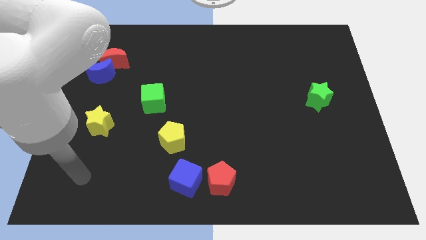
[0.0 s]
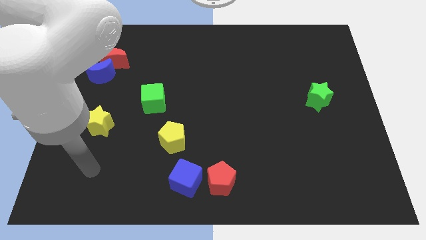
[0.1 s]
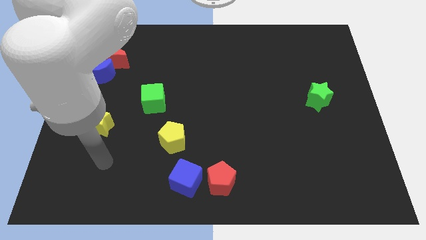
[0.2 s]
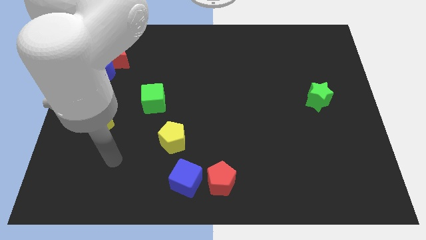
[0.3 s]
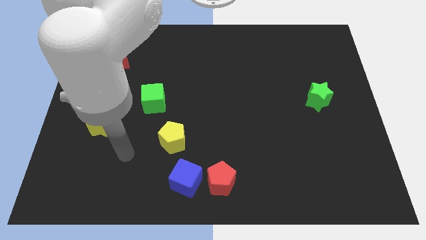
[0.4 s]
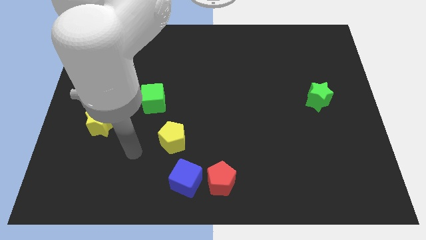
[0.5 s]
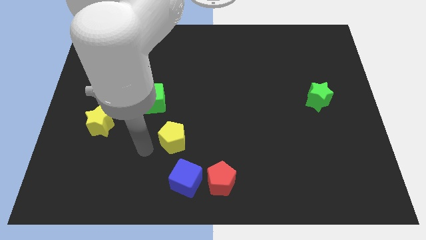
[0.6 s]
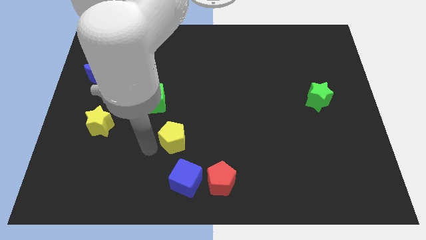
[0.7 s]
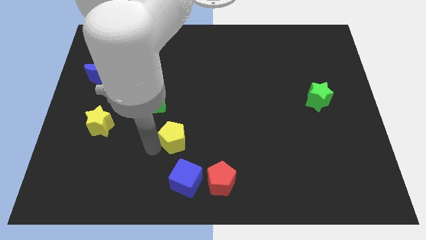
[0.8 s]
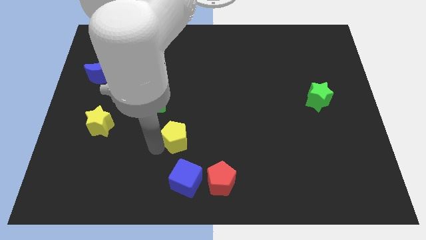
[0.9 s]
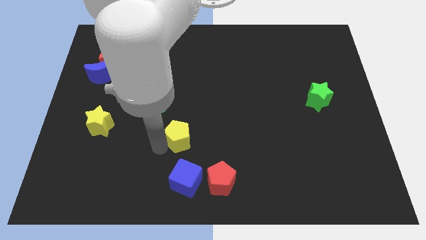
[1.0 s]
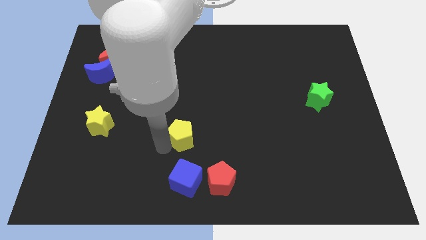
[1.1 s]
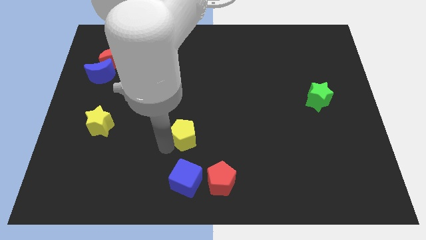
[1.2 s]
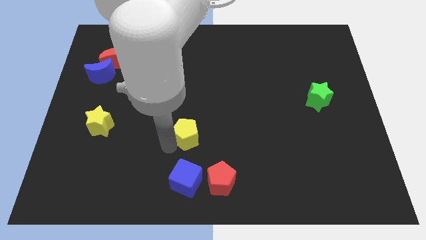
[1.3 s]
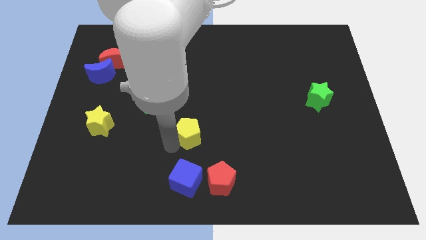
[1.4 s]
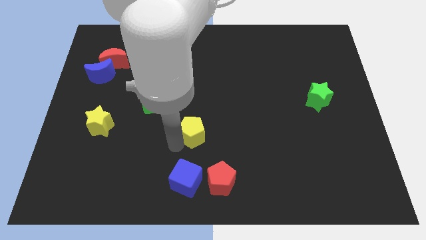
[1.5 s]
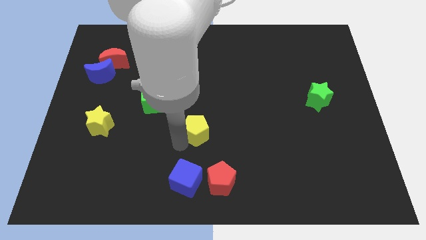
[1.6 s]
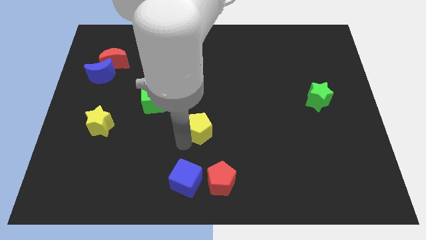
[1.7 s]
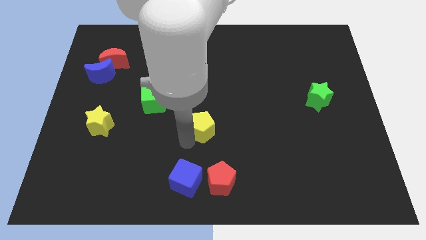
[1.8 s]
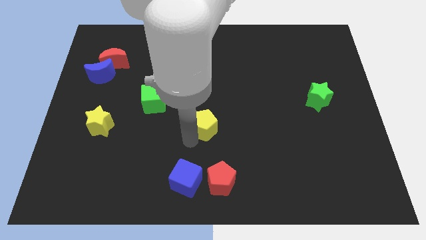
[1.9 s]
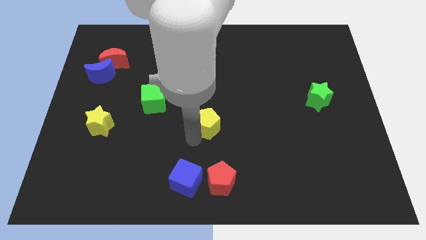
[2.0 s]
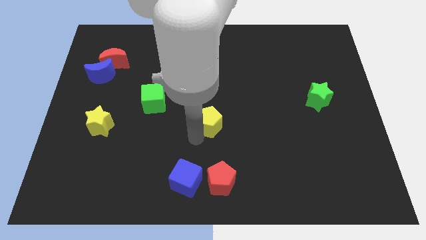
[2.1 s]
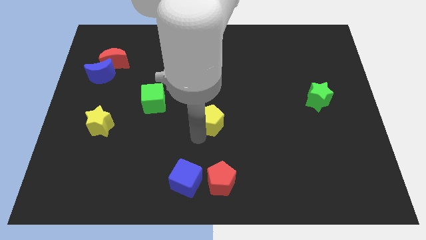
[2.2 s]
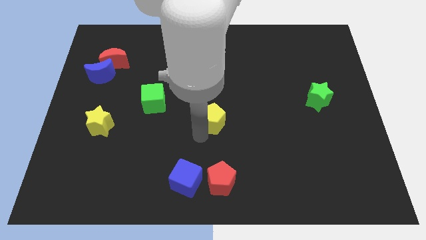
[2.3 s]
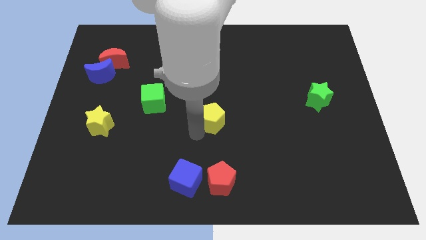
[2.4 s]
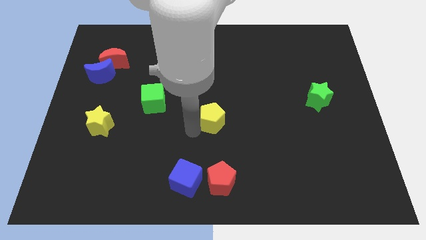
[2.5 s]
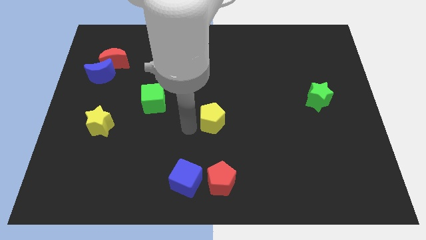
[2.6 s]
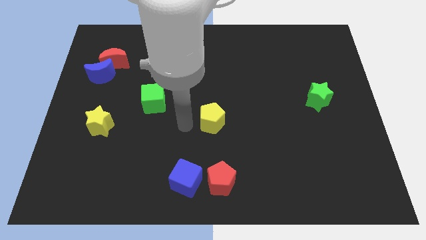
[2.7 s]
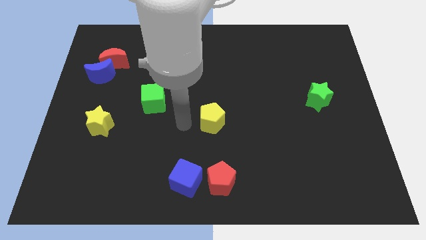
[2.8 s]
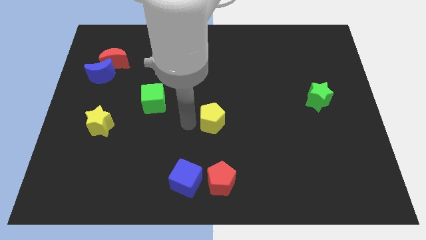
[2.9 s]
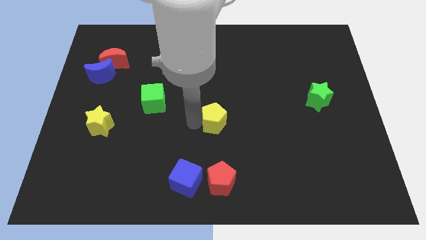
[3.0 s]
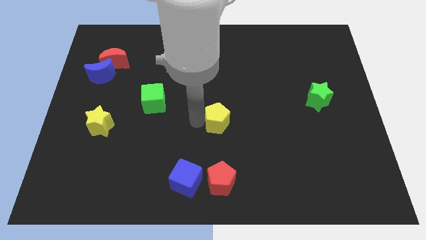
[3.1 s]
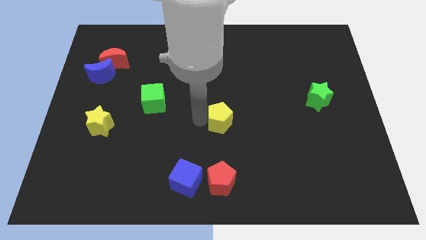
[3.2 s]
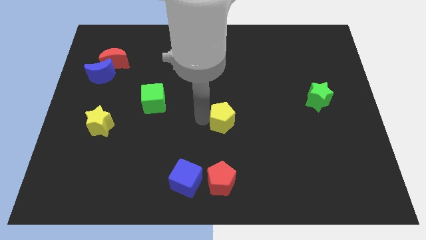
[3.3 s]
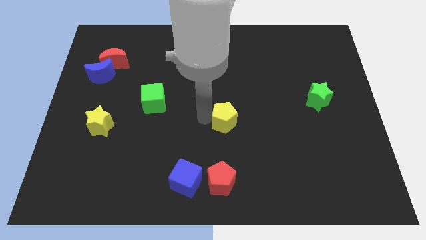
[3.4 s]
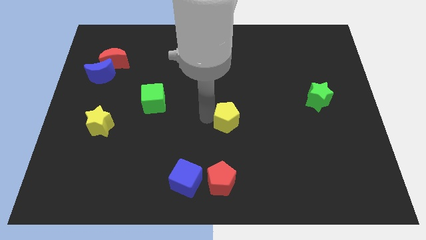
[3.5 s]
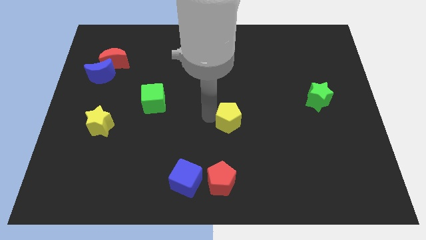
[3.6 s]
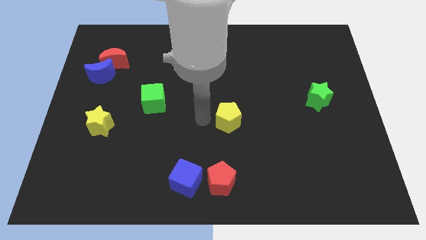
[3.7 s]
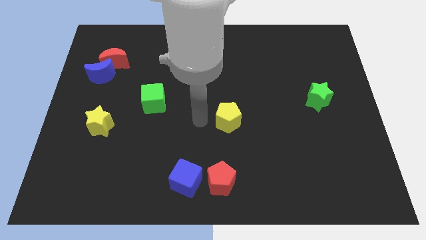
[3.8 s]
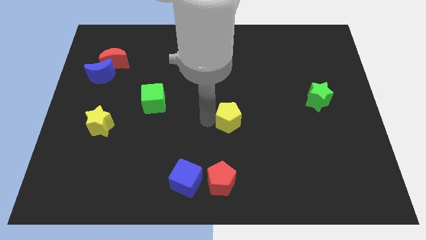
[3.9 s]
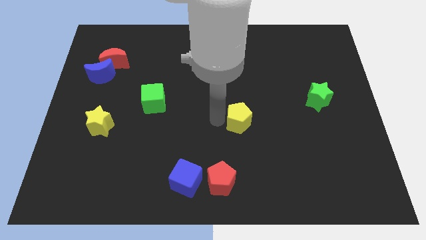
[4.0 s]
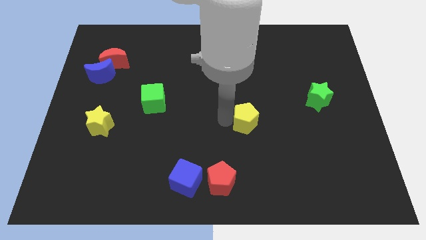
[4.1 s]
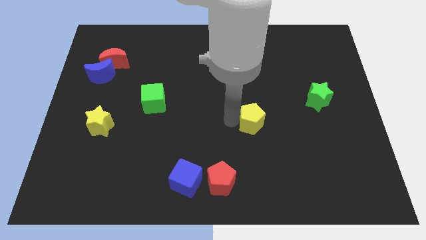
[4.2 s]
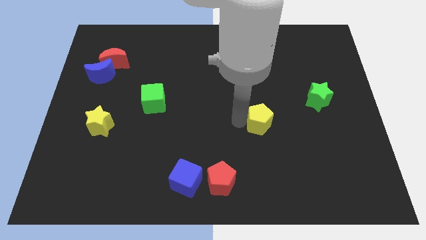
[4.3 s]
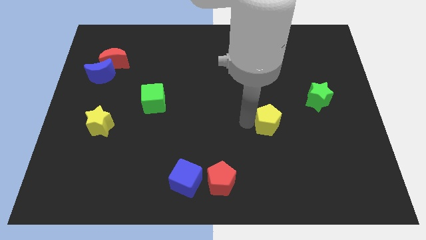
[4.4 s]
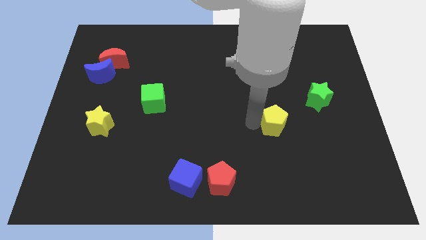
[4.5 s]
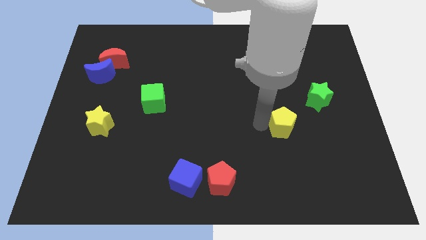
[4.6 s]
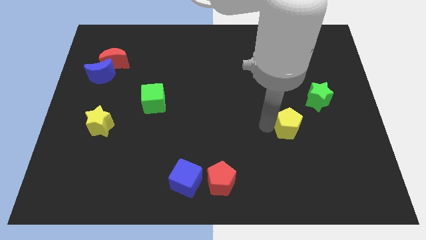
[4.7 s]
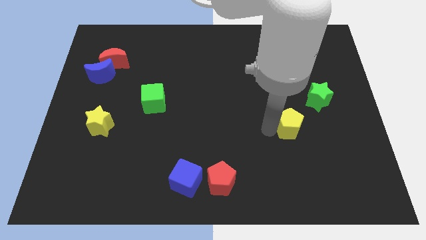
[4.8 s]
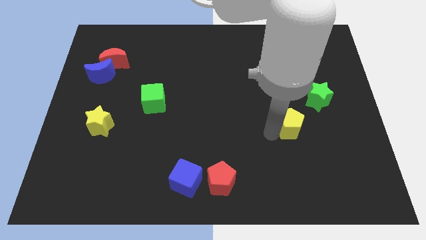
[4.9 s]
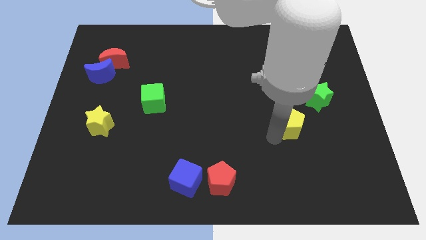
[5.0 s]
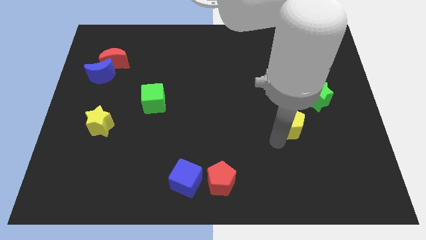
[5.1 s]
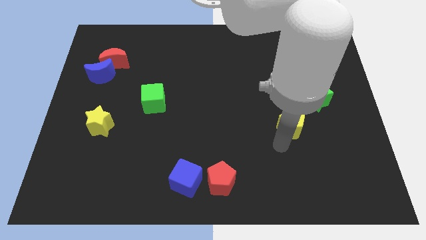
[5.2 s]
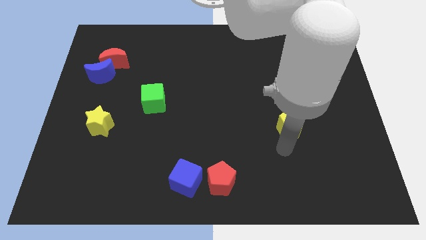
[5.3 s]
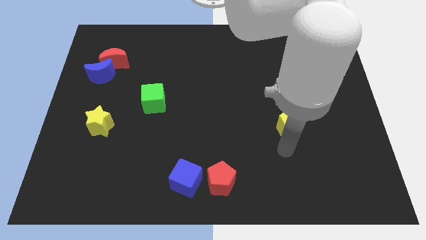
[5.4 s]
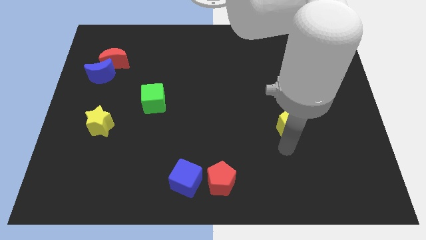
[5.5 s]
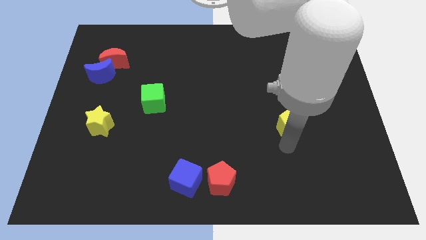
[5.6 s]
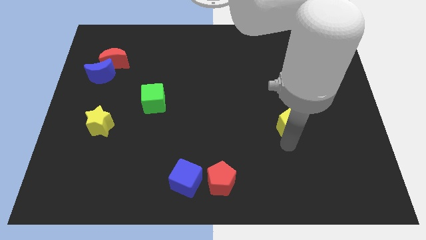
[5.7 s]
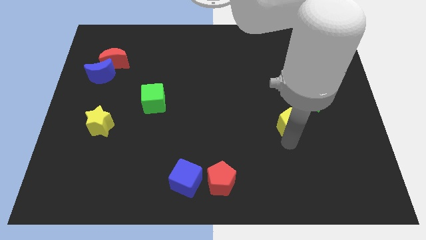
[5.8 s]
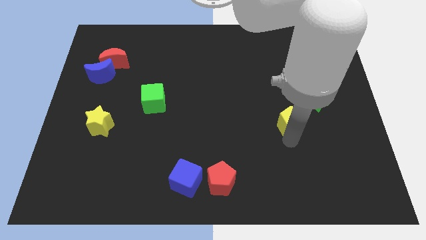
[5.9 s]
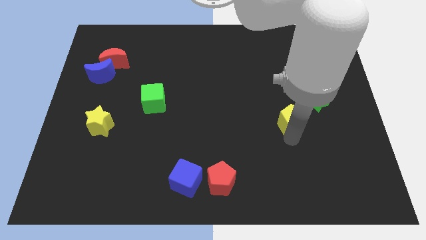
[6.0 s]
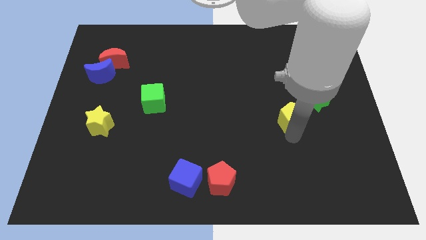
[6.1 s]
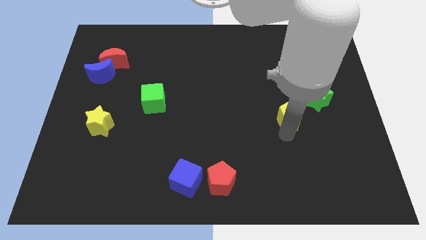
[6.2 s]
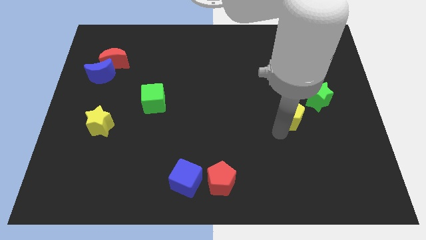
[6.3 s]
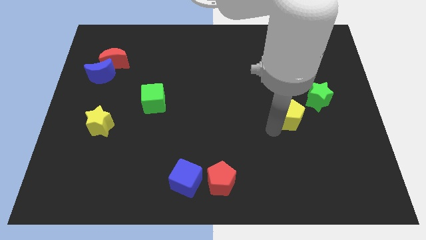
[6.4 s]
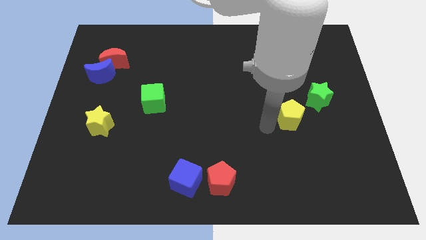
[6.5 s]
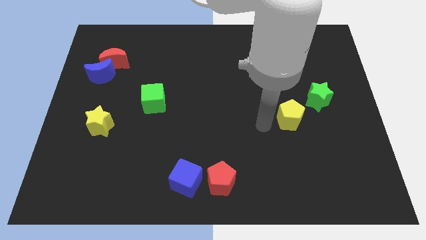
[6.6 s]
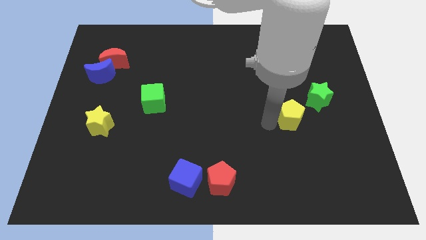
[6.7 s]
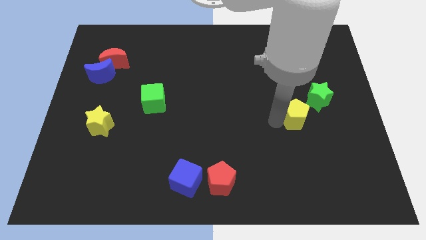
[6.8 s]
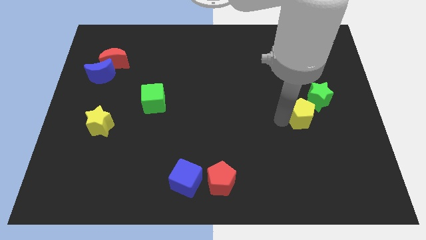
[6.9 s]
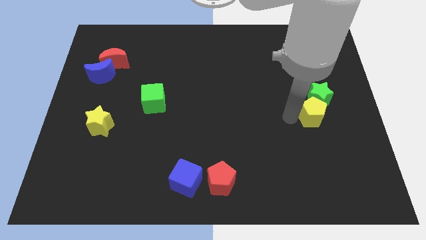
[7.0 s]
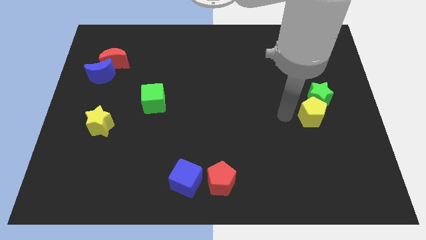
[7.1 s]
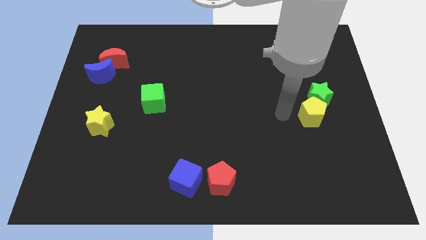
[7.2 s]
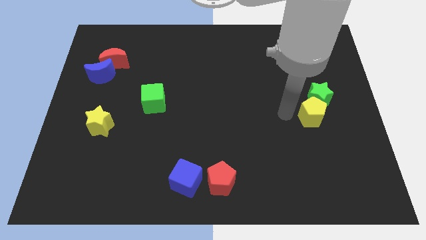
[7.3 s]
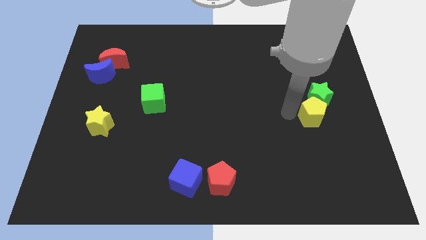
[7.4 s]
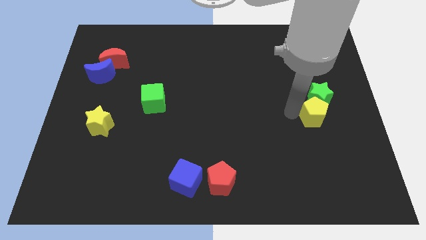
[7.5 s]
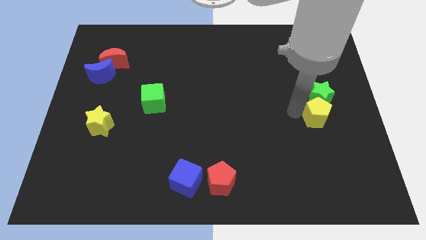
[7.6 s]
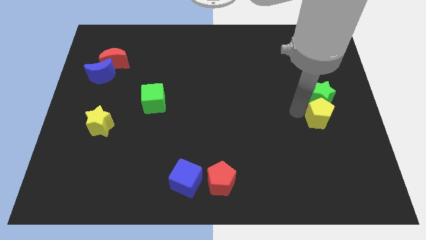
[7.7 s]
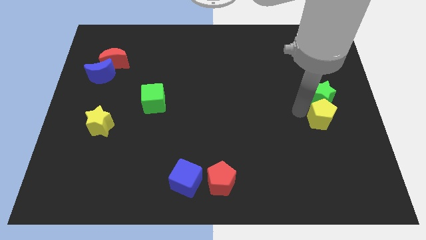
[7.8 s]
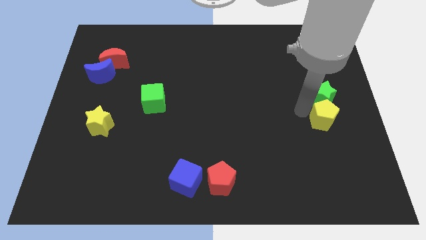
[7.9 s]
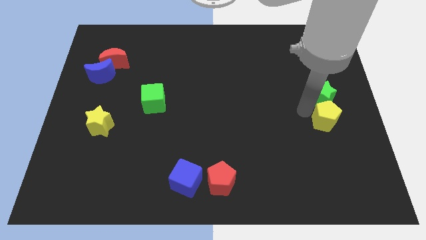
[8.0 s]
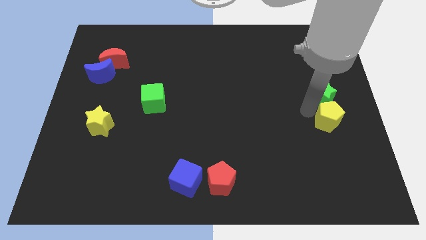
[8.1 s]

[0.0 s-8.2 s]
push the yellow pentagon to the center right
